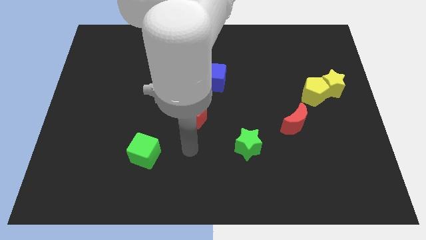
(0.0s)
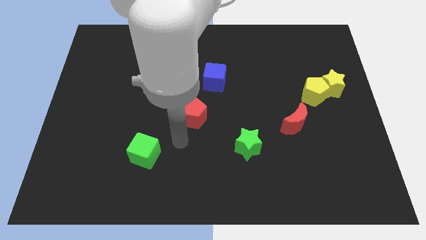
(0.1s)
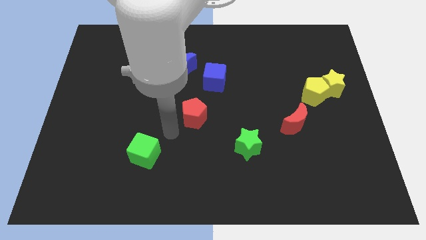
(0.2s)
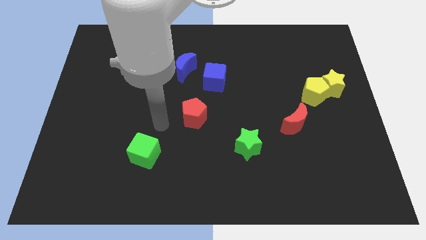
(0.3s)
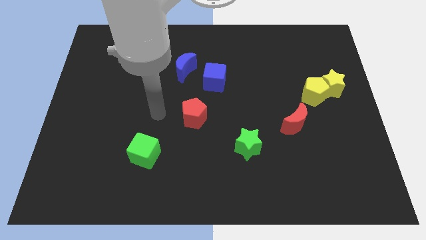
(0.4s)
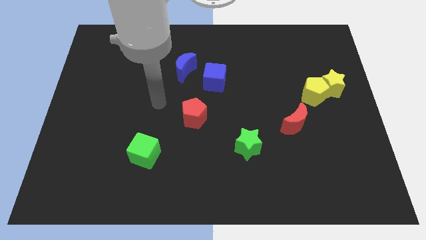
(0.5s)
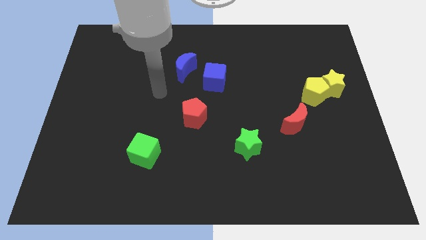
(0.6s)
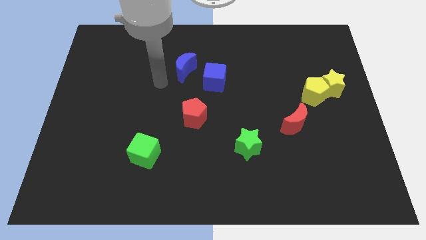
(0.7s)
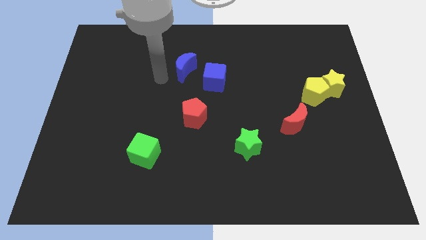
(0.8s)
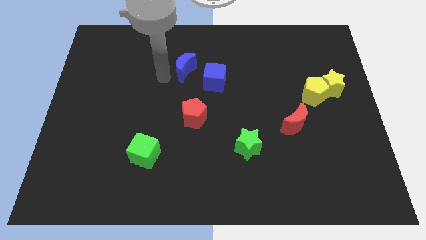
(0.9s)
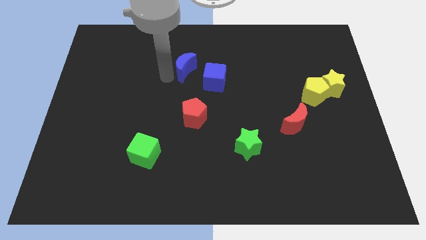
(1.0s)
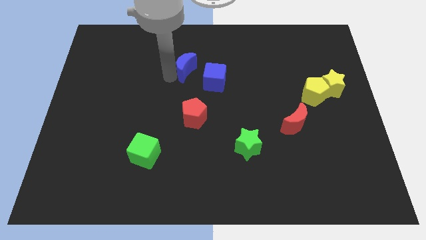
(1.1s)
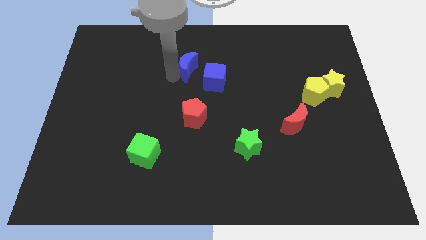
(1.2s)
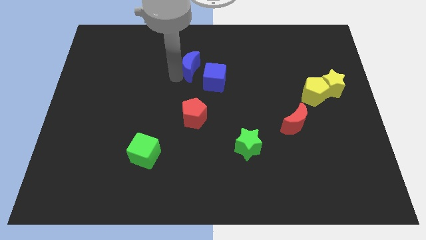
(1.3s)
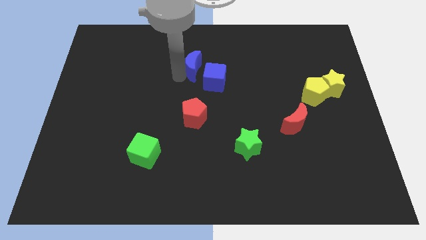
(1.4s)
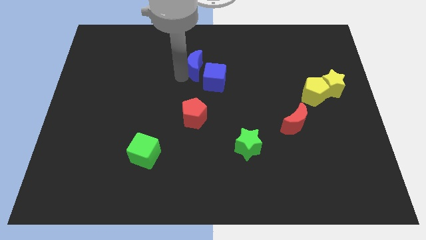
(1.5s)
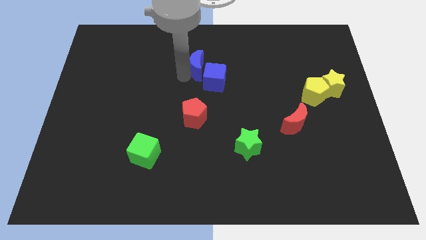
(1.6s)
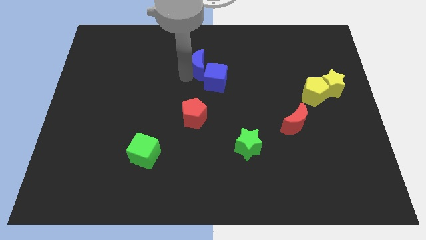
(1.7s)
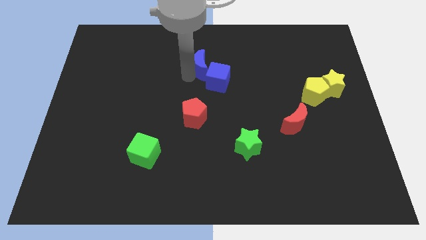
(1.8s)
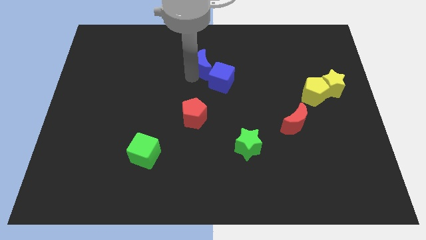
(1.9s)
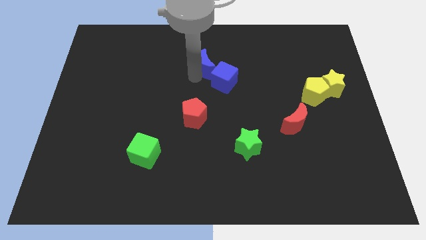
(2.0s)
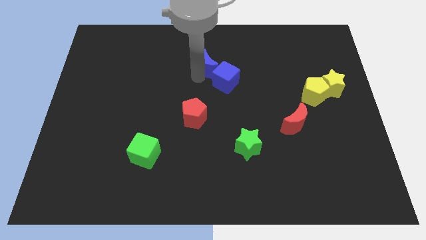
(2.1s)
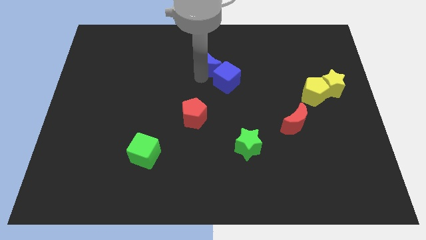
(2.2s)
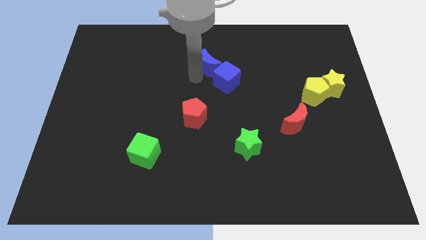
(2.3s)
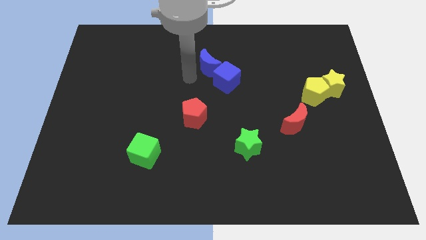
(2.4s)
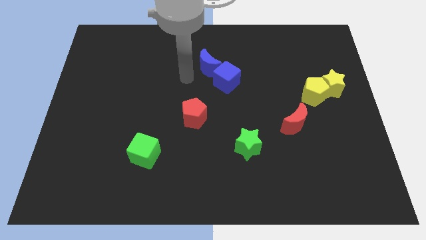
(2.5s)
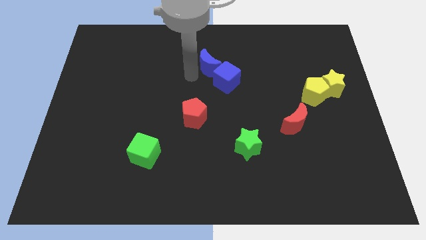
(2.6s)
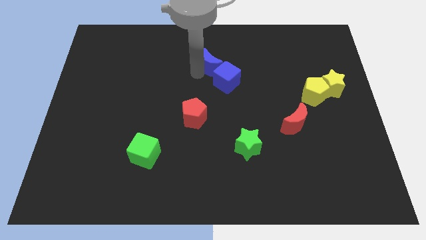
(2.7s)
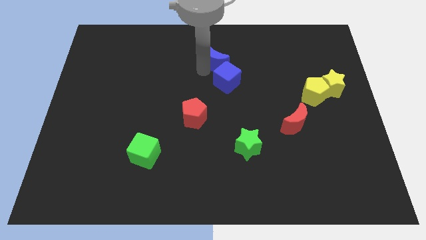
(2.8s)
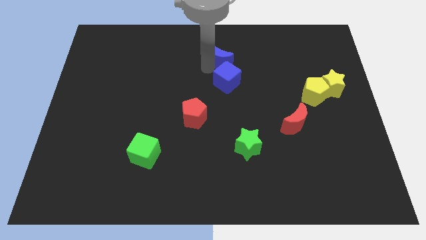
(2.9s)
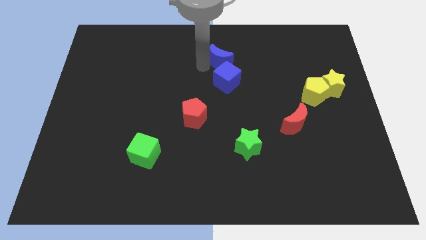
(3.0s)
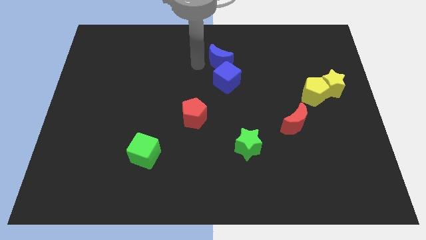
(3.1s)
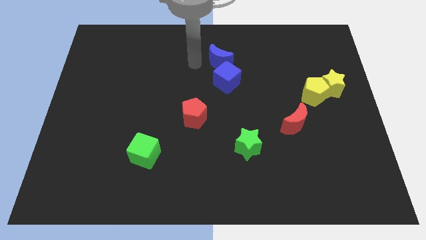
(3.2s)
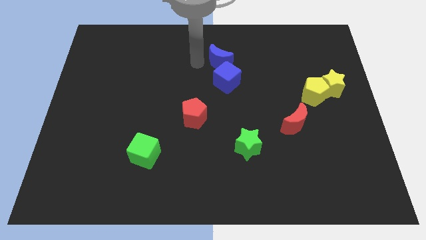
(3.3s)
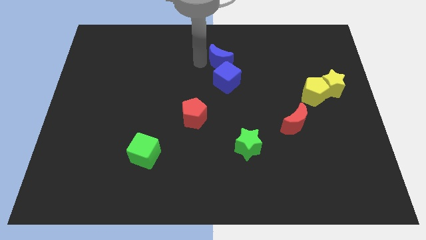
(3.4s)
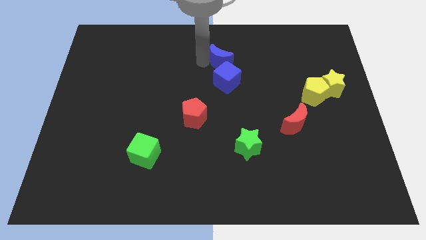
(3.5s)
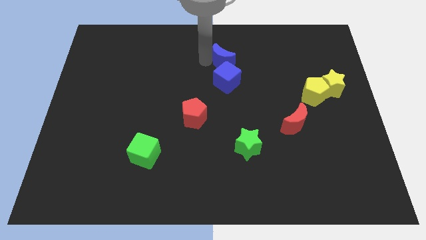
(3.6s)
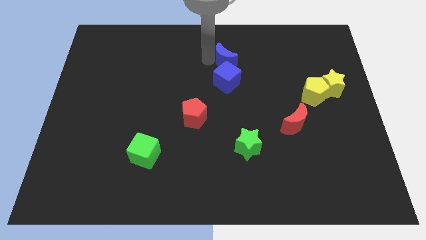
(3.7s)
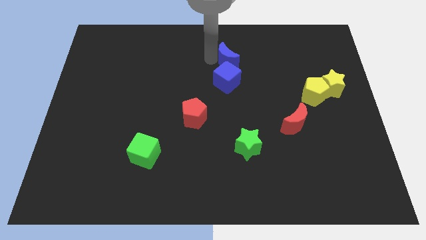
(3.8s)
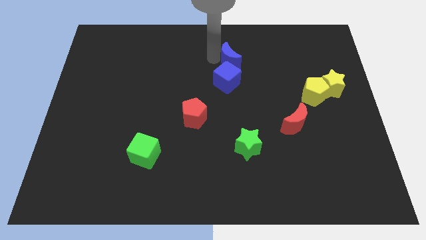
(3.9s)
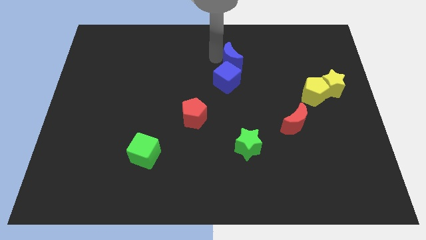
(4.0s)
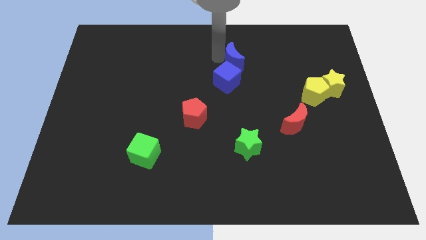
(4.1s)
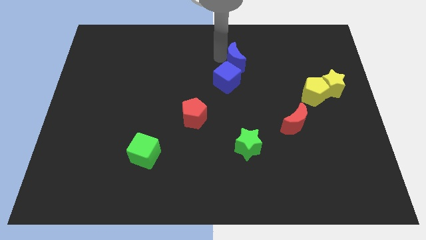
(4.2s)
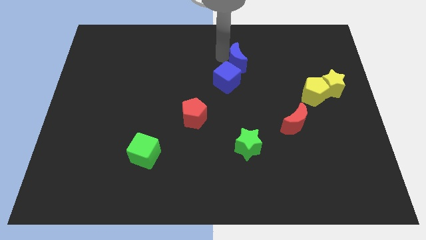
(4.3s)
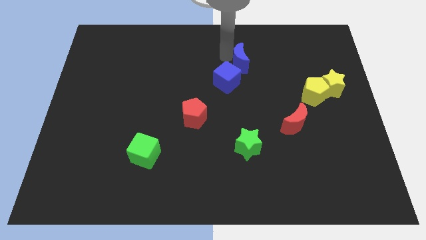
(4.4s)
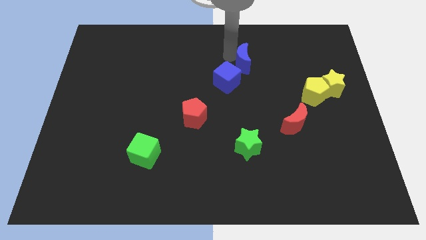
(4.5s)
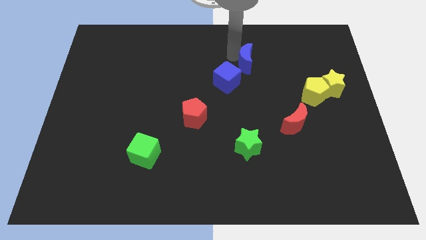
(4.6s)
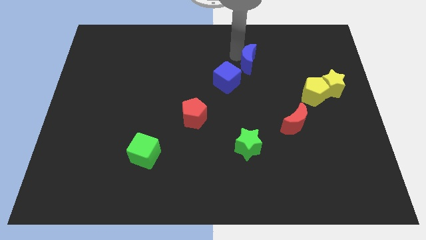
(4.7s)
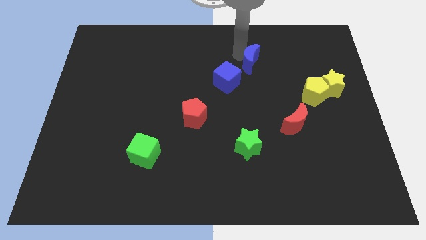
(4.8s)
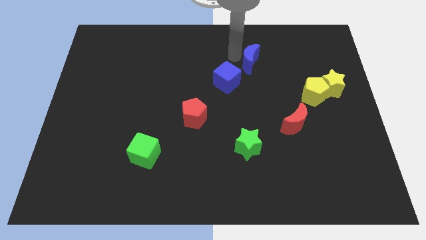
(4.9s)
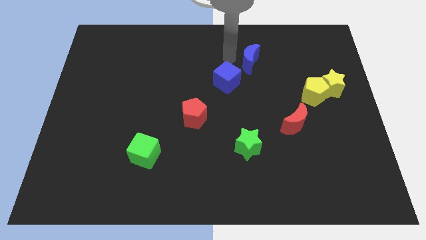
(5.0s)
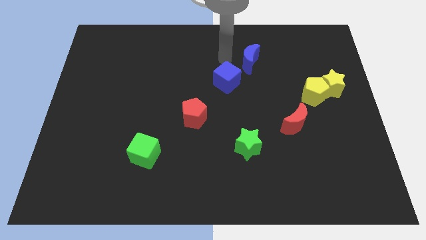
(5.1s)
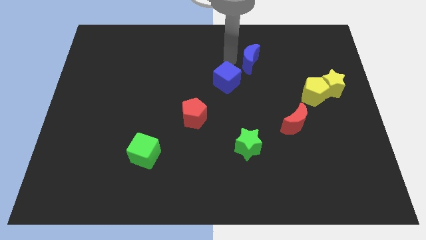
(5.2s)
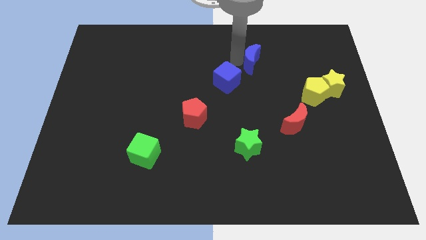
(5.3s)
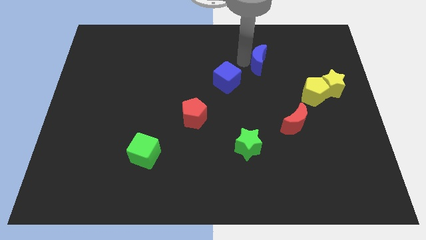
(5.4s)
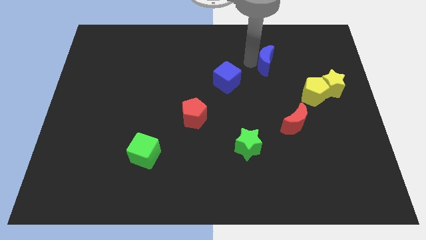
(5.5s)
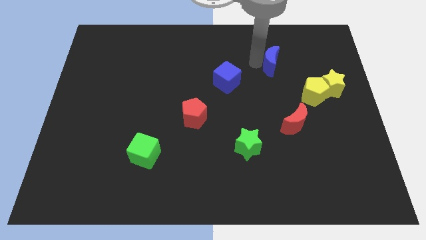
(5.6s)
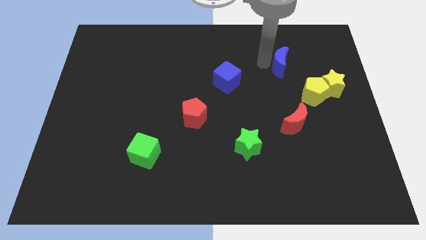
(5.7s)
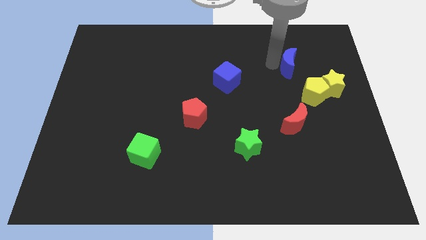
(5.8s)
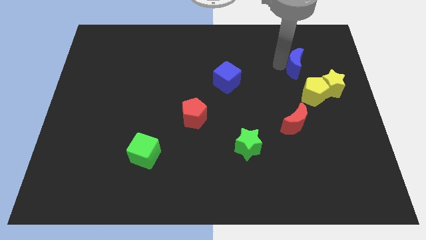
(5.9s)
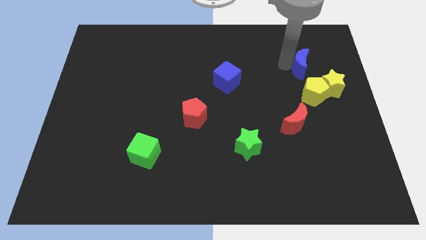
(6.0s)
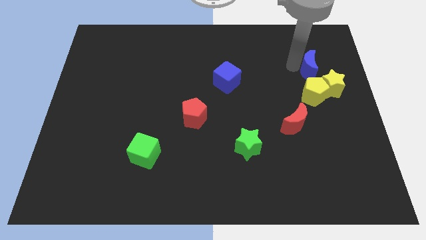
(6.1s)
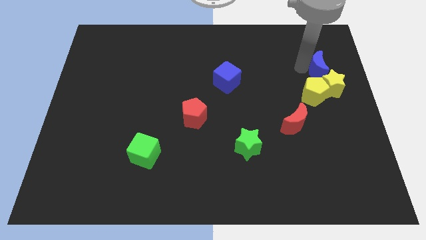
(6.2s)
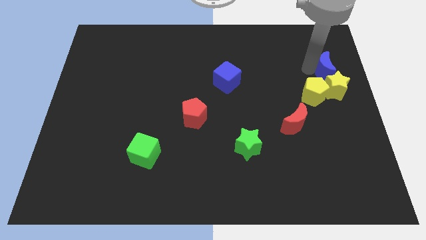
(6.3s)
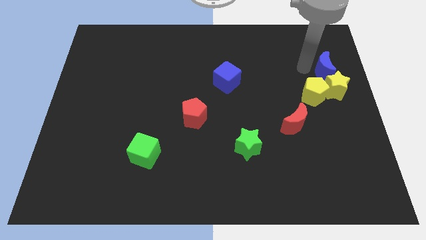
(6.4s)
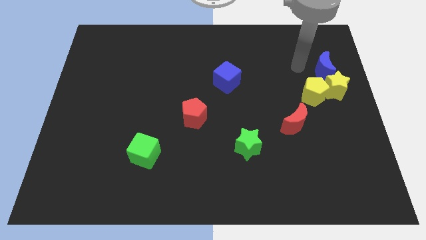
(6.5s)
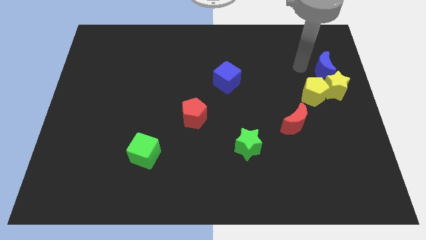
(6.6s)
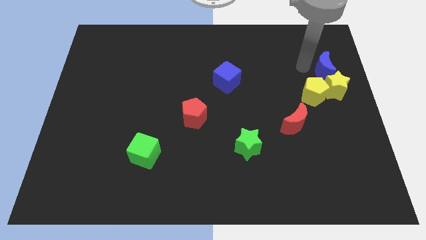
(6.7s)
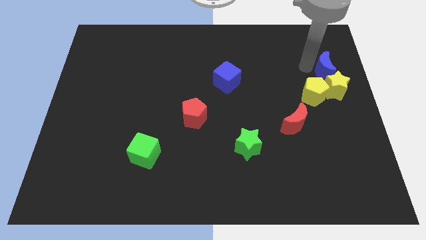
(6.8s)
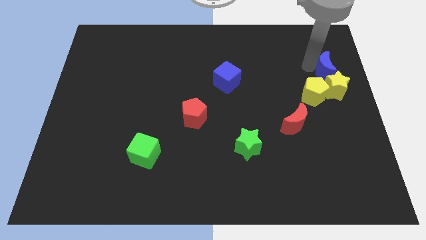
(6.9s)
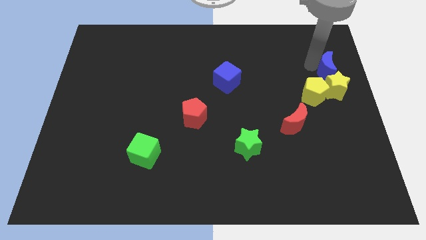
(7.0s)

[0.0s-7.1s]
slide the blue moon to the right side of the board
